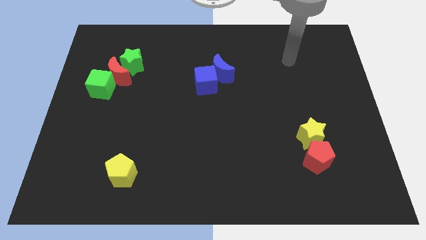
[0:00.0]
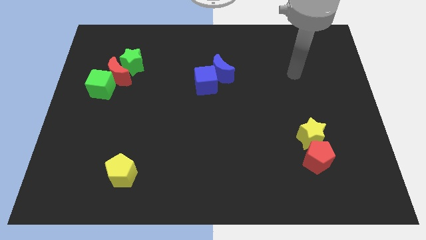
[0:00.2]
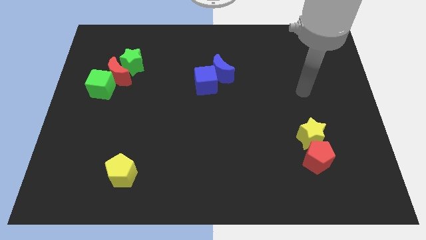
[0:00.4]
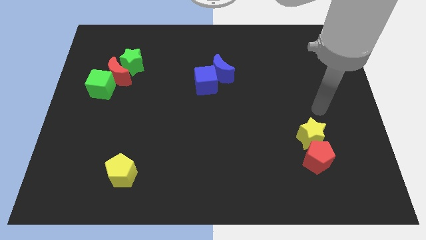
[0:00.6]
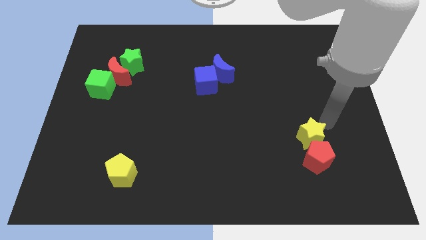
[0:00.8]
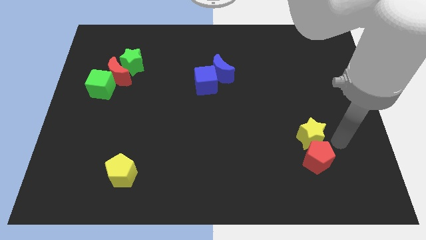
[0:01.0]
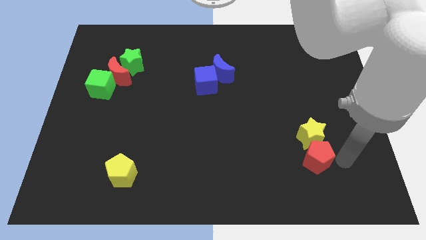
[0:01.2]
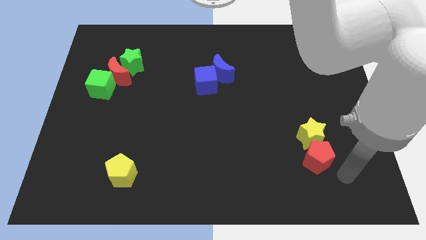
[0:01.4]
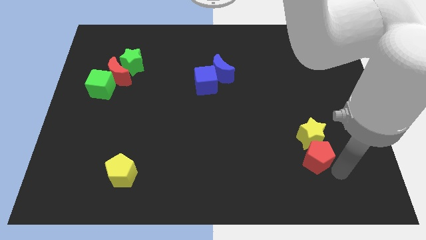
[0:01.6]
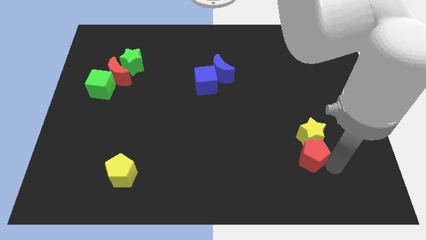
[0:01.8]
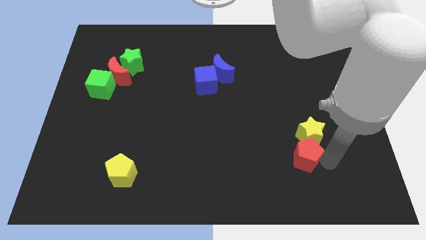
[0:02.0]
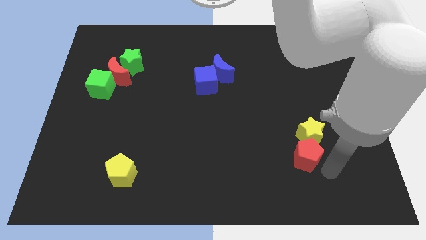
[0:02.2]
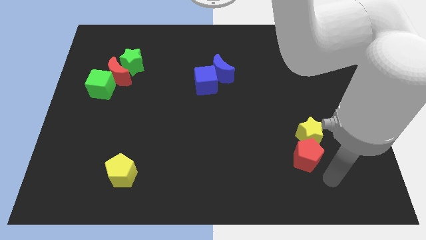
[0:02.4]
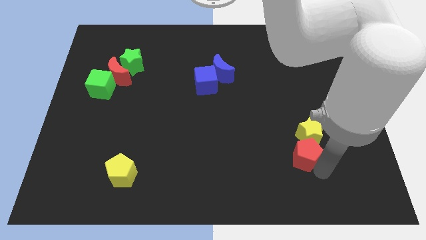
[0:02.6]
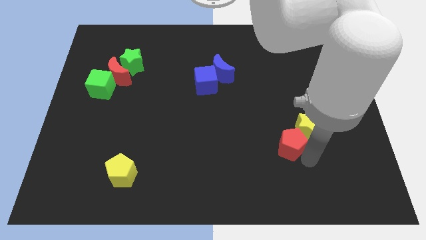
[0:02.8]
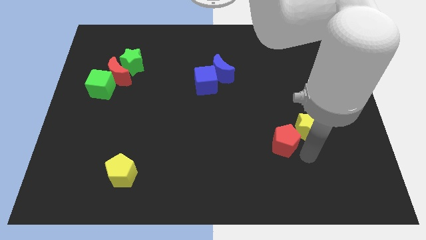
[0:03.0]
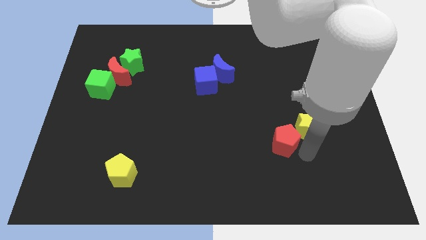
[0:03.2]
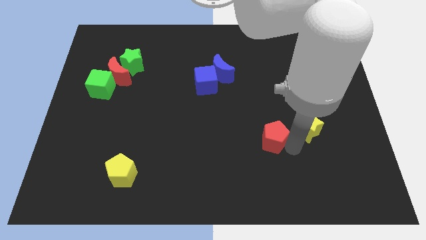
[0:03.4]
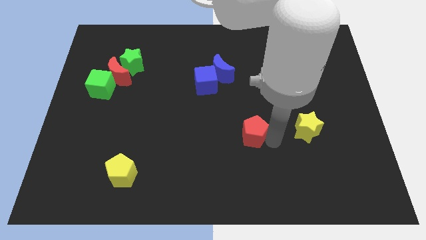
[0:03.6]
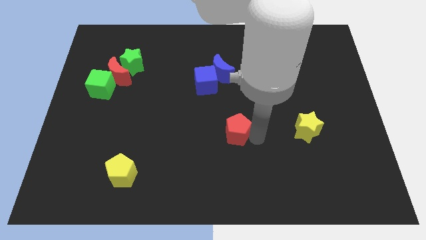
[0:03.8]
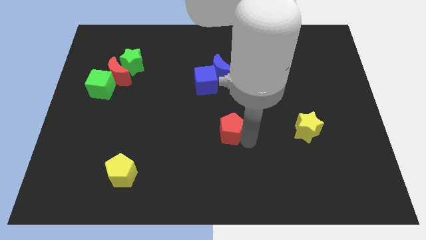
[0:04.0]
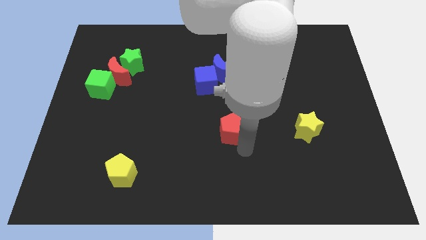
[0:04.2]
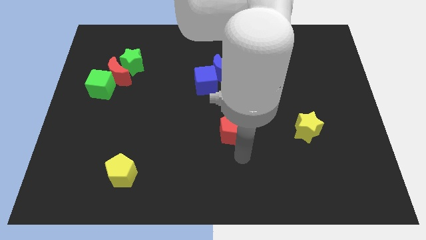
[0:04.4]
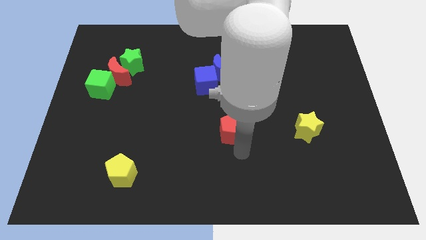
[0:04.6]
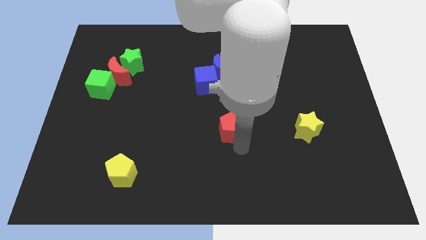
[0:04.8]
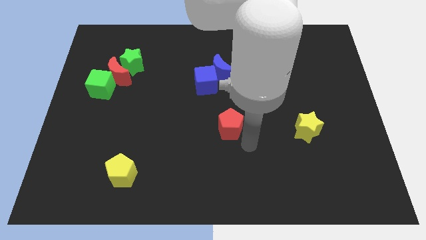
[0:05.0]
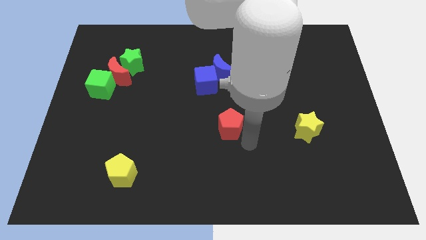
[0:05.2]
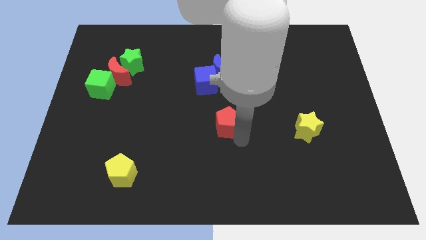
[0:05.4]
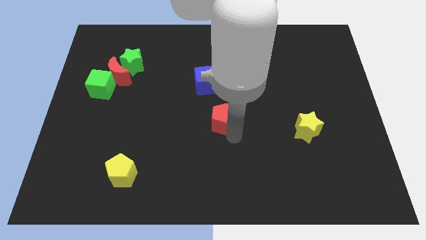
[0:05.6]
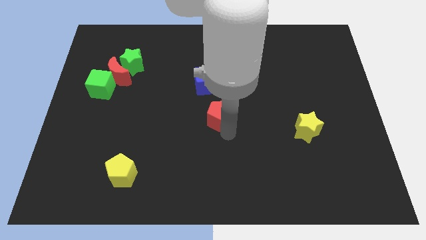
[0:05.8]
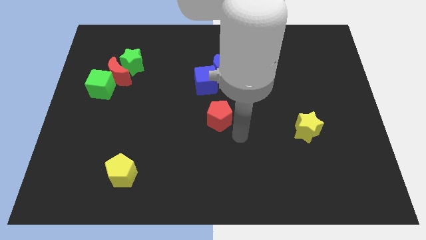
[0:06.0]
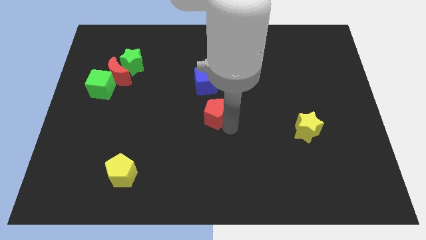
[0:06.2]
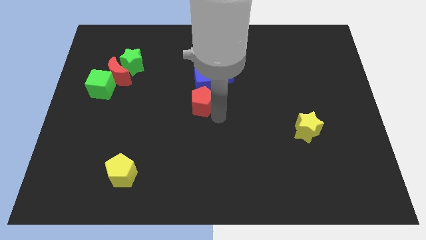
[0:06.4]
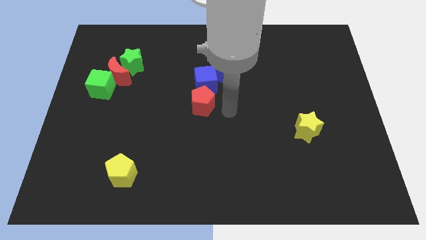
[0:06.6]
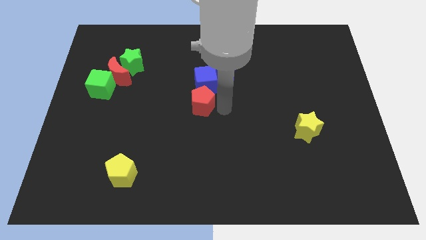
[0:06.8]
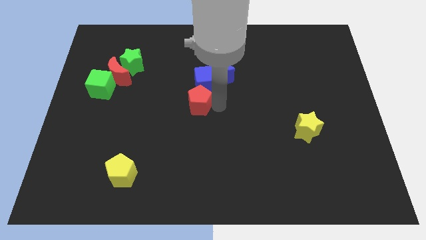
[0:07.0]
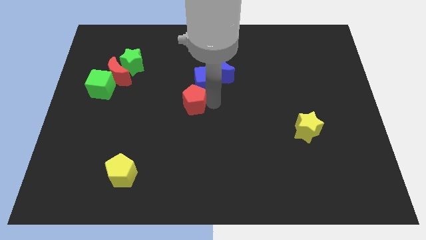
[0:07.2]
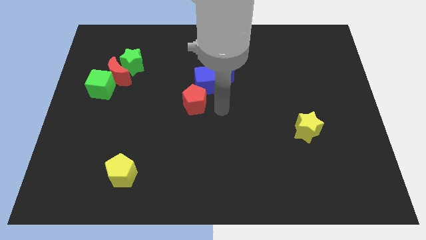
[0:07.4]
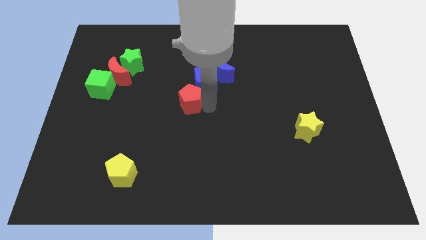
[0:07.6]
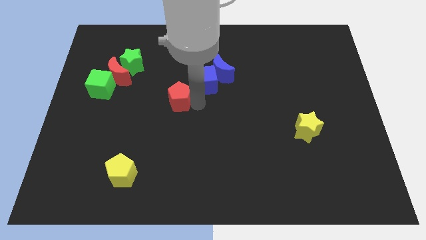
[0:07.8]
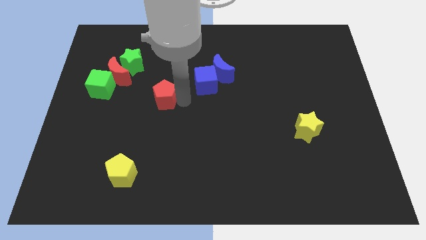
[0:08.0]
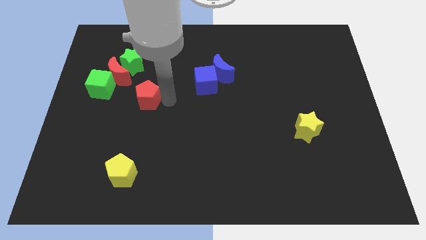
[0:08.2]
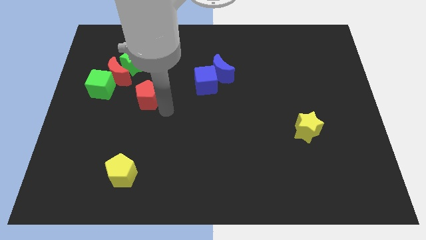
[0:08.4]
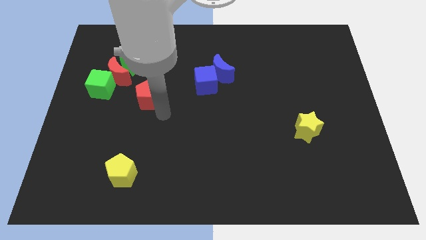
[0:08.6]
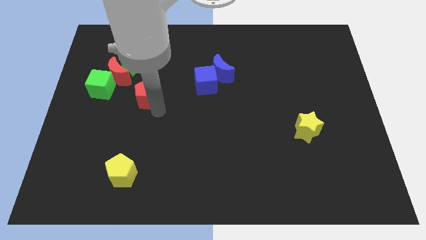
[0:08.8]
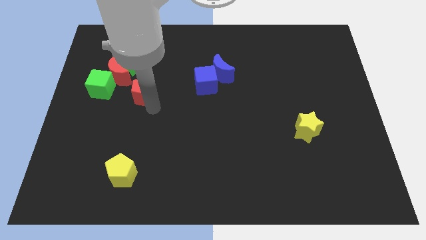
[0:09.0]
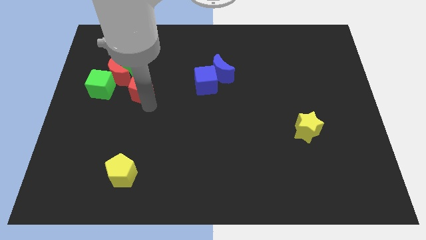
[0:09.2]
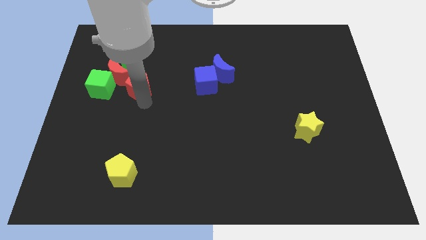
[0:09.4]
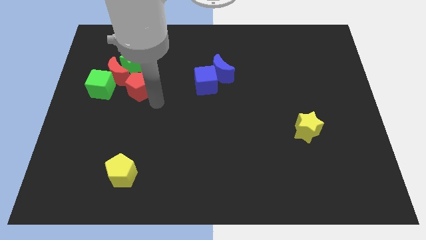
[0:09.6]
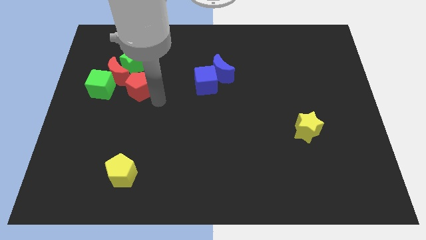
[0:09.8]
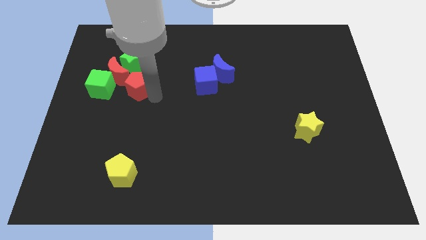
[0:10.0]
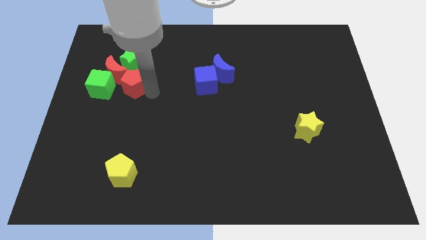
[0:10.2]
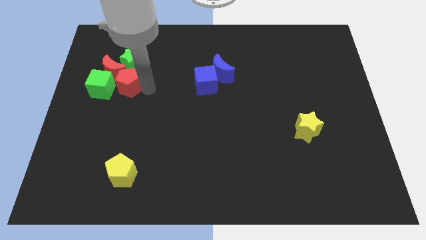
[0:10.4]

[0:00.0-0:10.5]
put the red pentagon close to the red moon

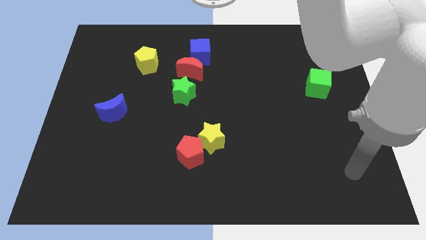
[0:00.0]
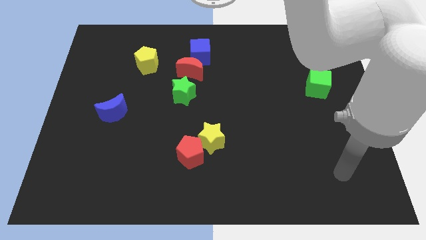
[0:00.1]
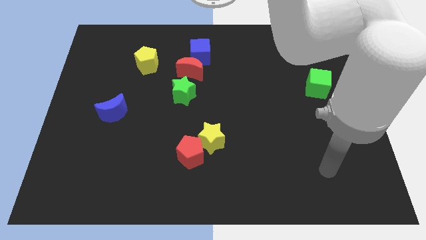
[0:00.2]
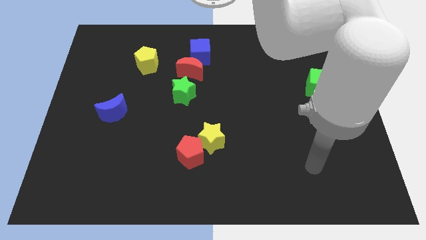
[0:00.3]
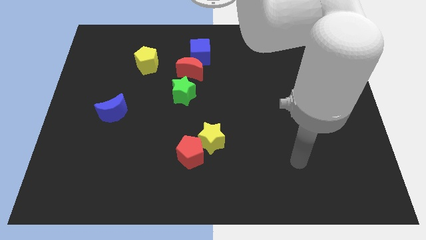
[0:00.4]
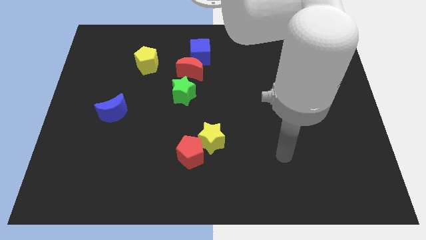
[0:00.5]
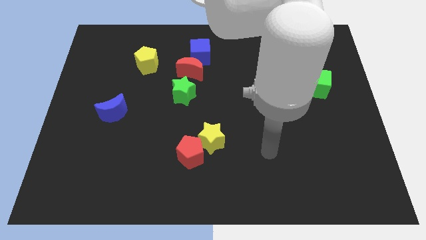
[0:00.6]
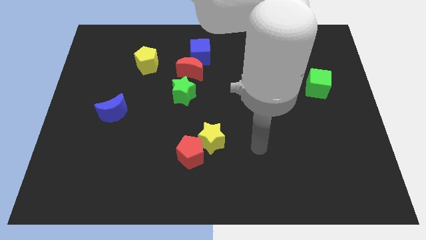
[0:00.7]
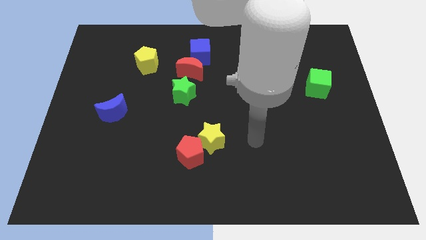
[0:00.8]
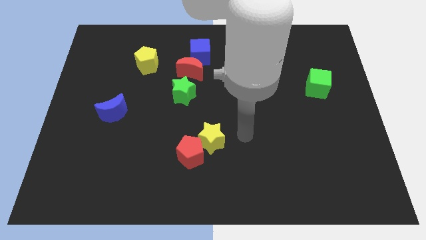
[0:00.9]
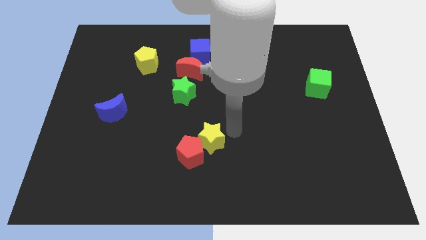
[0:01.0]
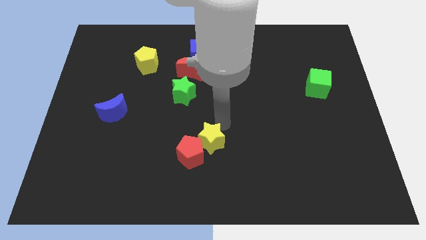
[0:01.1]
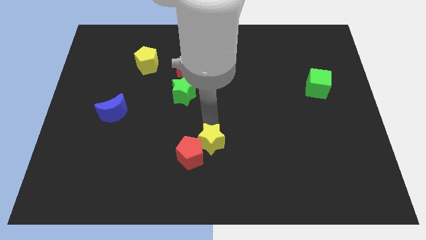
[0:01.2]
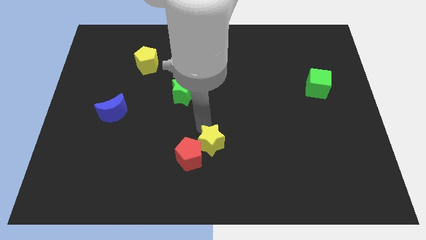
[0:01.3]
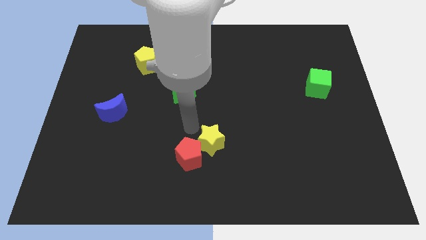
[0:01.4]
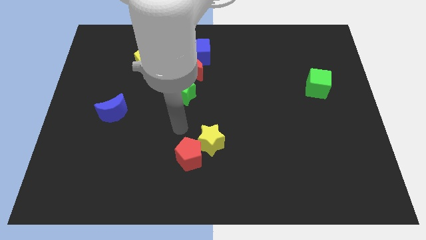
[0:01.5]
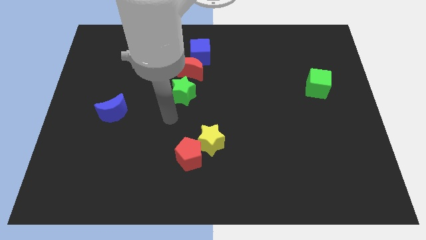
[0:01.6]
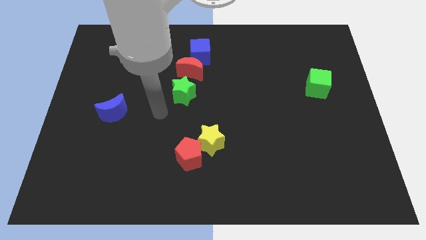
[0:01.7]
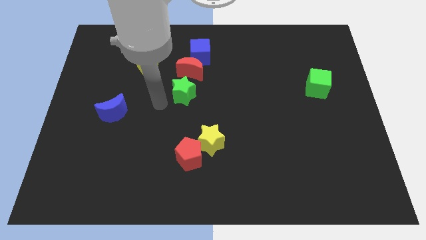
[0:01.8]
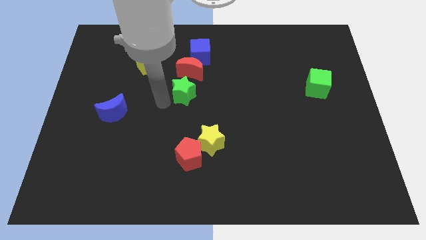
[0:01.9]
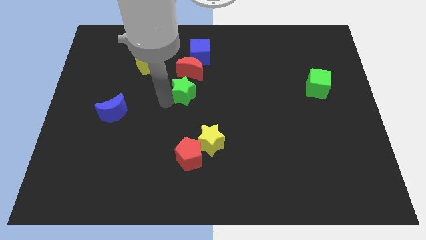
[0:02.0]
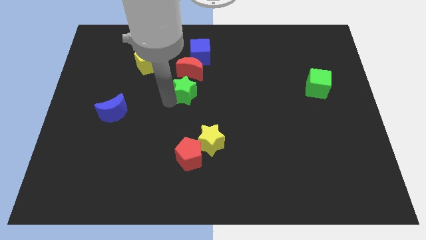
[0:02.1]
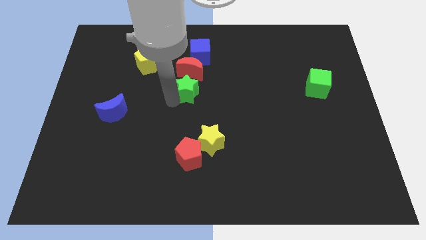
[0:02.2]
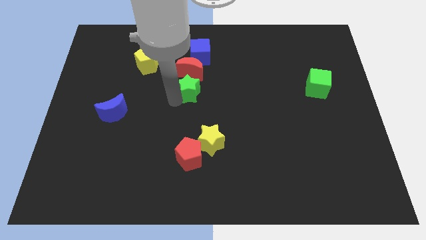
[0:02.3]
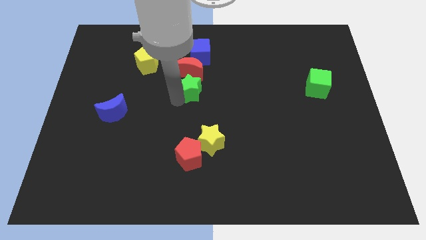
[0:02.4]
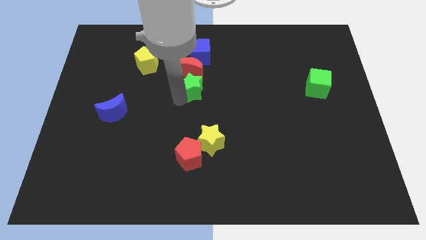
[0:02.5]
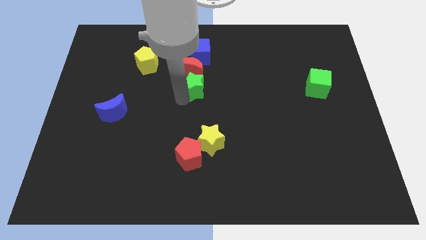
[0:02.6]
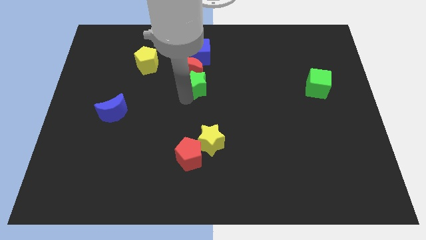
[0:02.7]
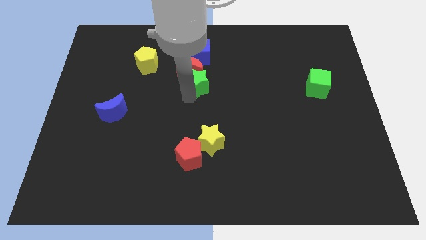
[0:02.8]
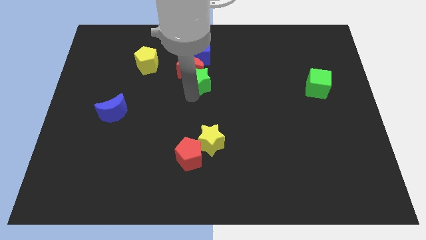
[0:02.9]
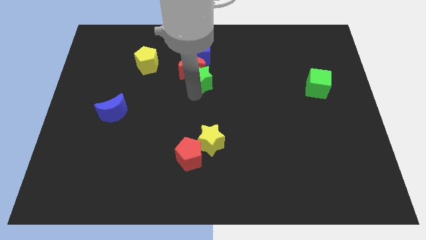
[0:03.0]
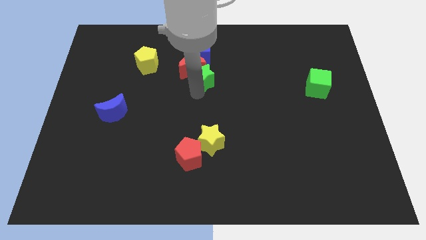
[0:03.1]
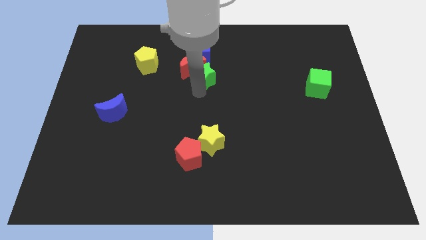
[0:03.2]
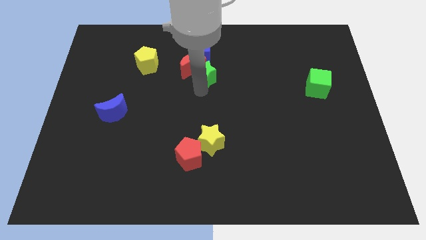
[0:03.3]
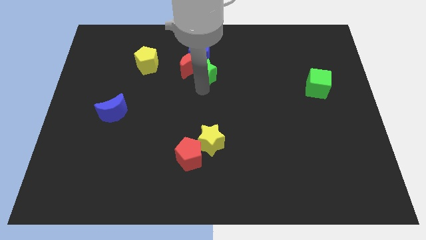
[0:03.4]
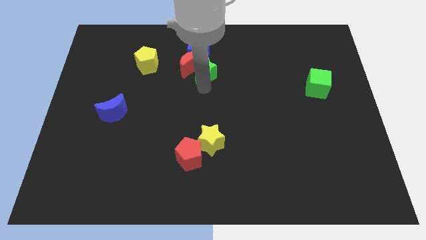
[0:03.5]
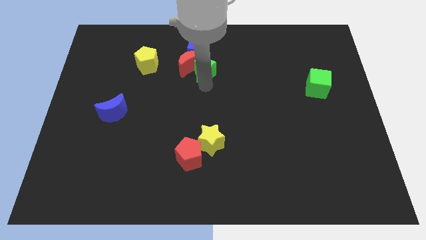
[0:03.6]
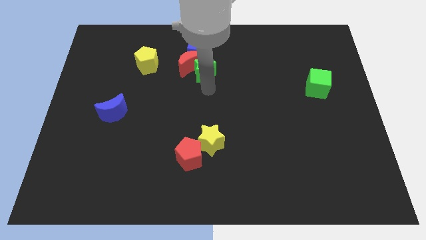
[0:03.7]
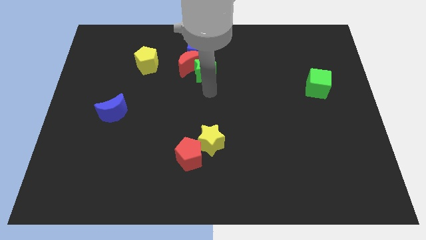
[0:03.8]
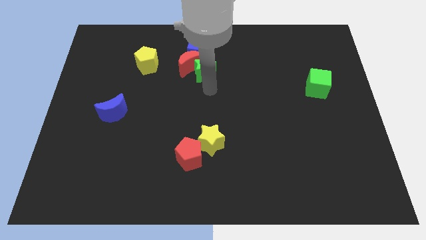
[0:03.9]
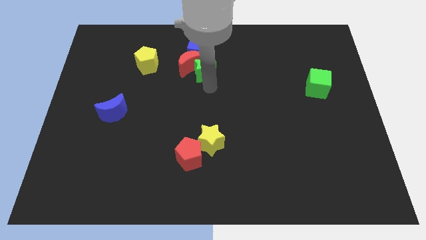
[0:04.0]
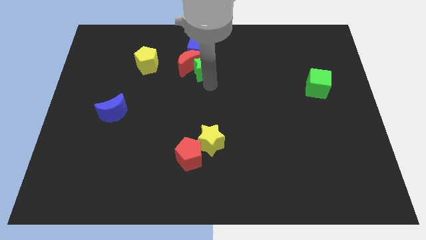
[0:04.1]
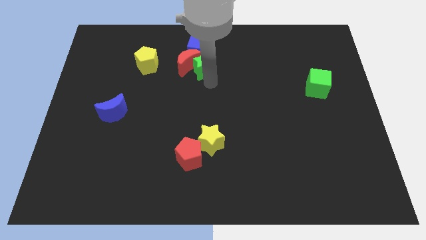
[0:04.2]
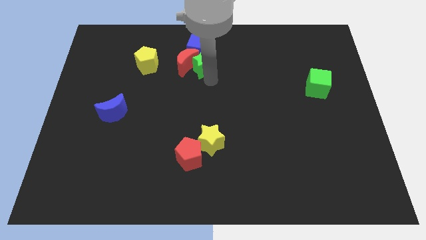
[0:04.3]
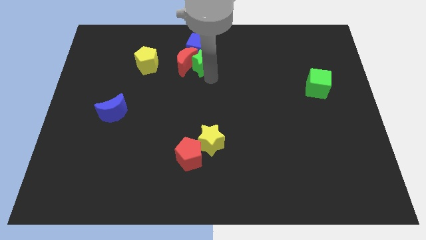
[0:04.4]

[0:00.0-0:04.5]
push the green star towards the blue cube
